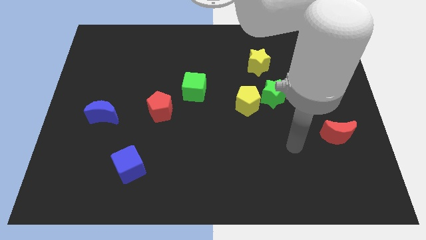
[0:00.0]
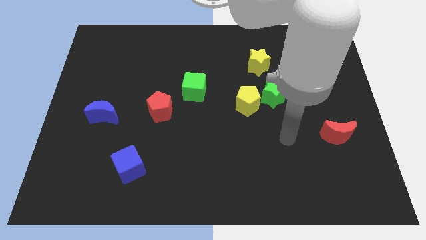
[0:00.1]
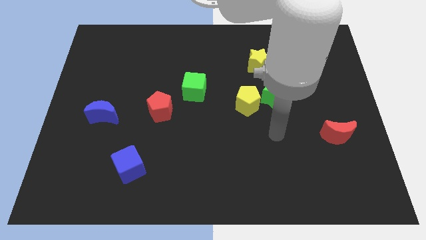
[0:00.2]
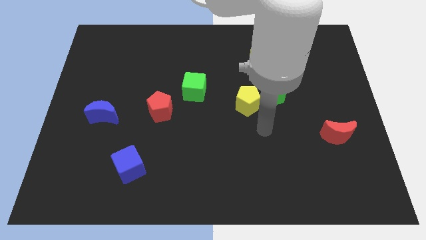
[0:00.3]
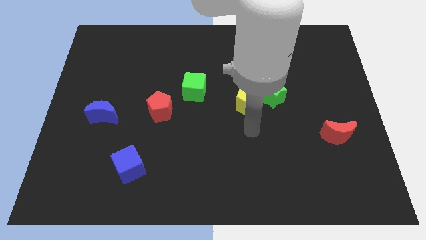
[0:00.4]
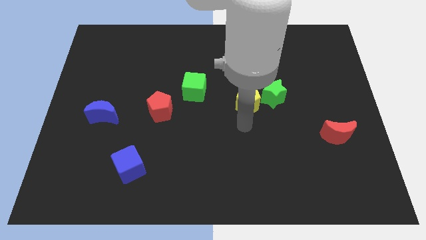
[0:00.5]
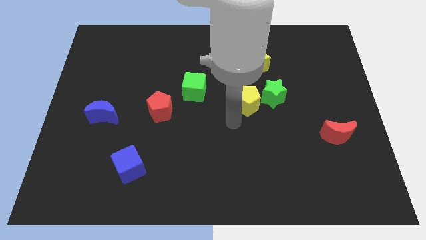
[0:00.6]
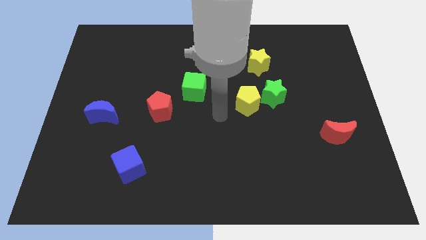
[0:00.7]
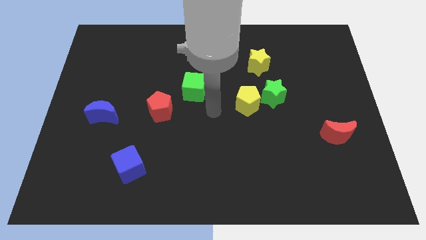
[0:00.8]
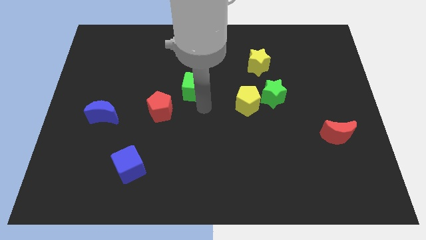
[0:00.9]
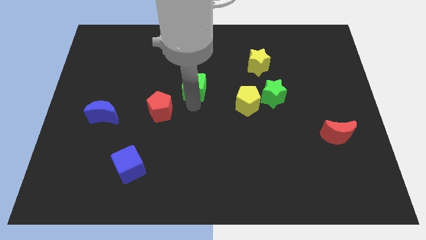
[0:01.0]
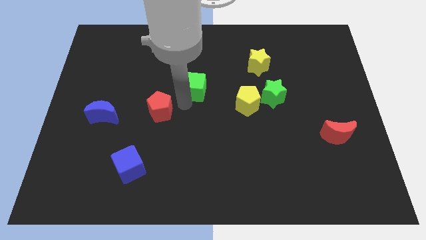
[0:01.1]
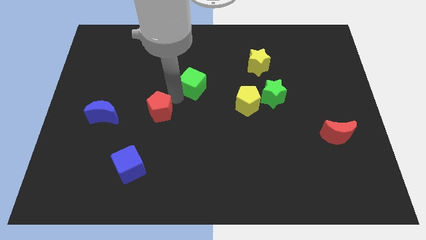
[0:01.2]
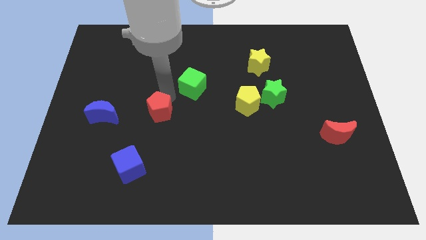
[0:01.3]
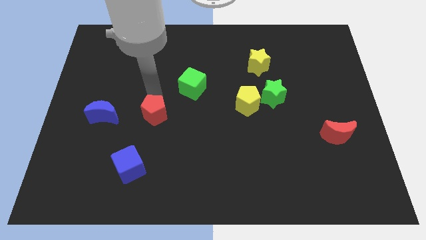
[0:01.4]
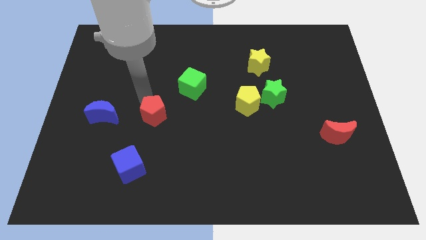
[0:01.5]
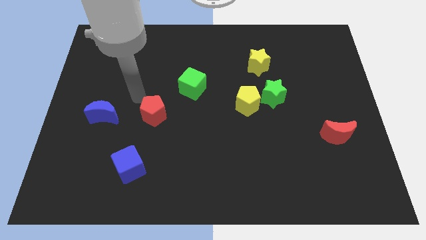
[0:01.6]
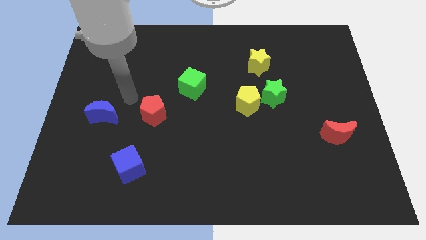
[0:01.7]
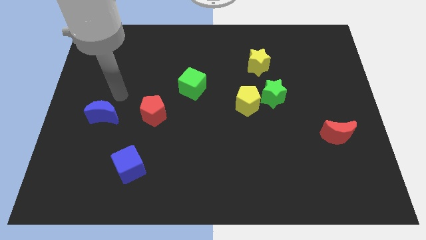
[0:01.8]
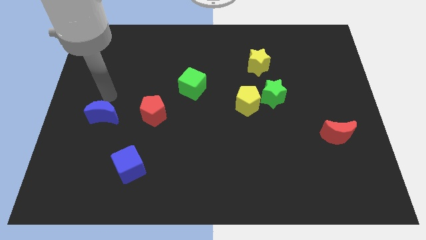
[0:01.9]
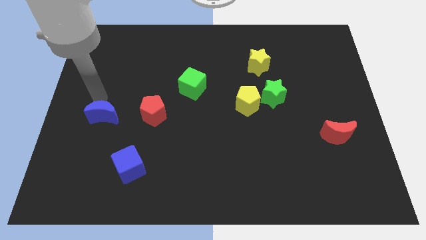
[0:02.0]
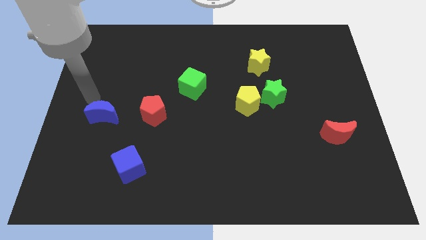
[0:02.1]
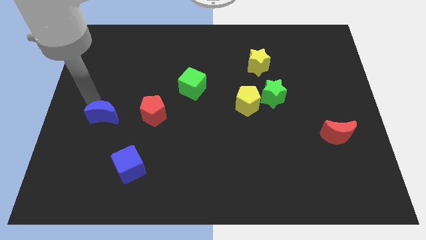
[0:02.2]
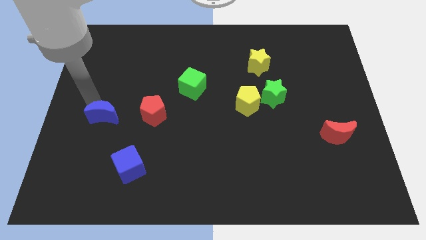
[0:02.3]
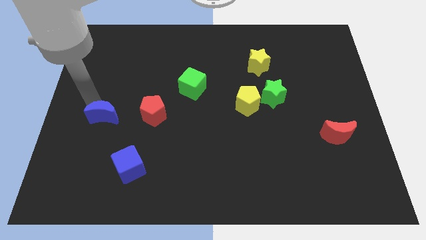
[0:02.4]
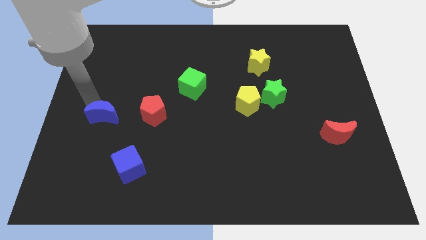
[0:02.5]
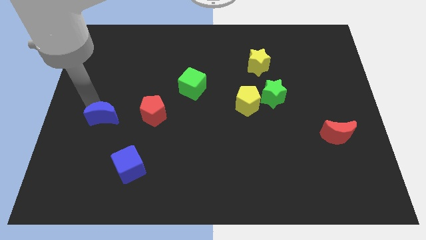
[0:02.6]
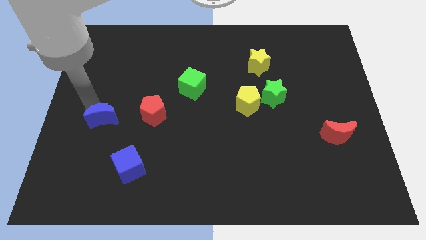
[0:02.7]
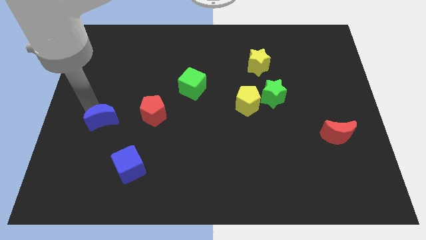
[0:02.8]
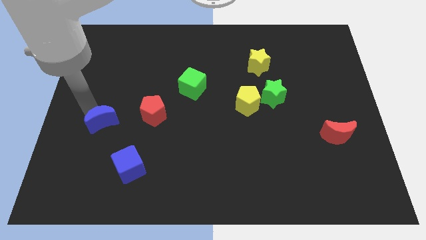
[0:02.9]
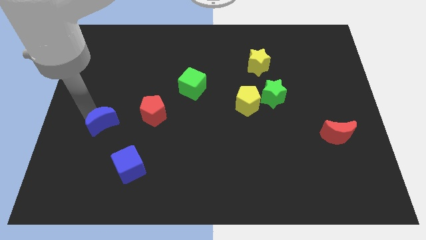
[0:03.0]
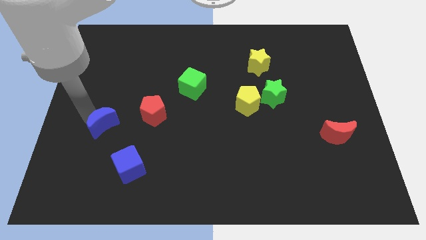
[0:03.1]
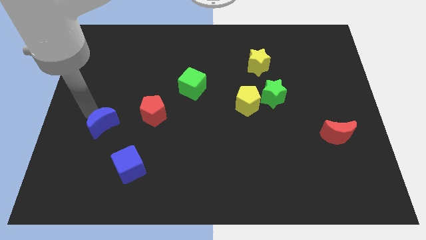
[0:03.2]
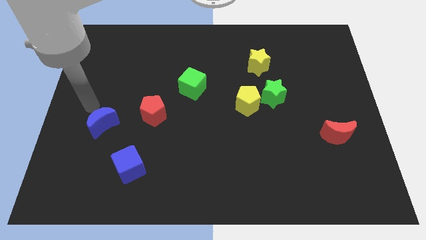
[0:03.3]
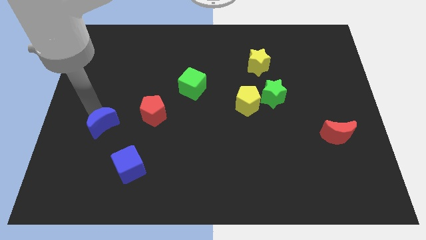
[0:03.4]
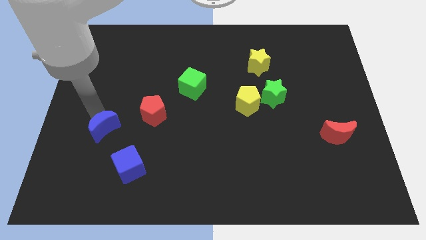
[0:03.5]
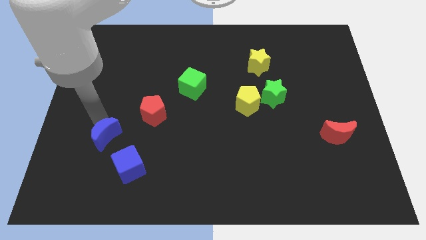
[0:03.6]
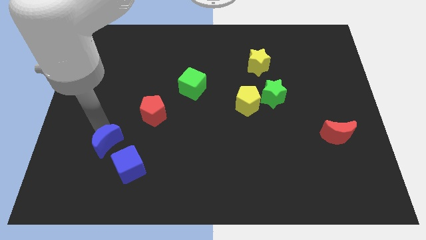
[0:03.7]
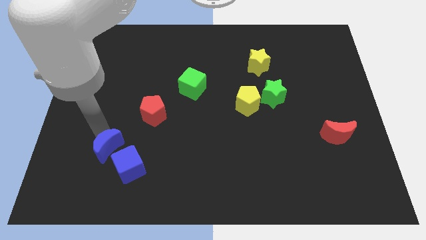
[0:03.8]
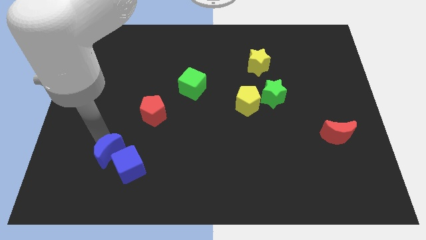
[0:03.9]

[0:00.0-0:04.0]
slide the blue moon next to the blue cube

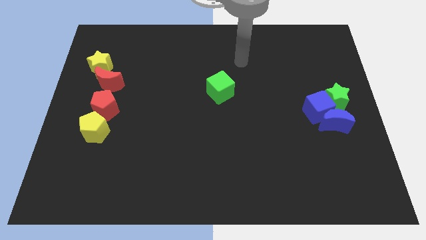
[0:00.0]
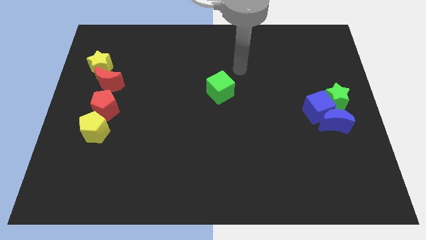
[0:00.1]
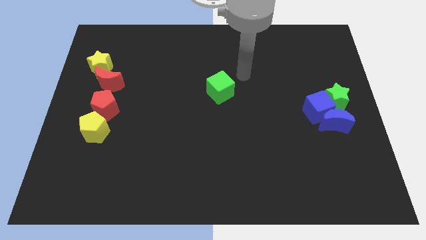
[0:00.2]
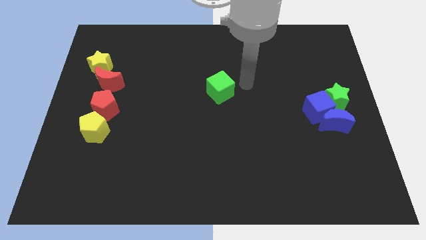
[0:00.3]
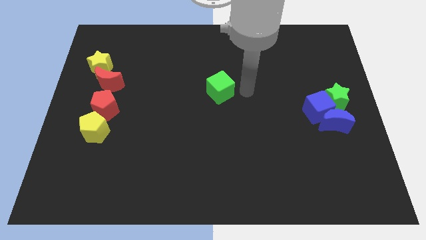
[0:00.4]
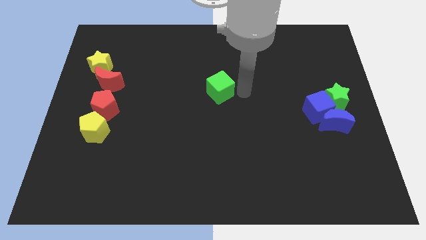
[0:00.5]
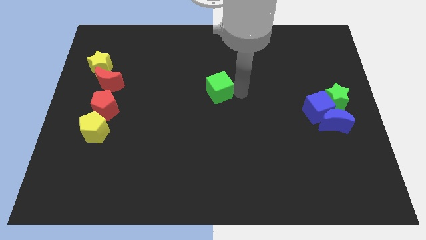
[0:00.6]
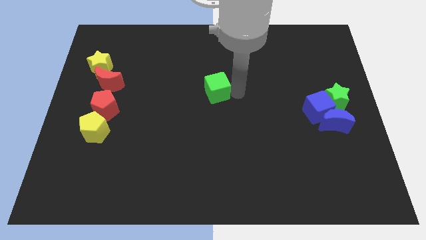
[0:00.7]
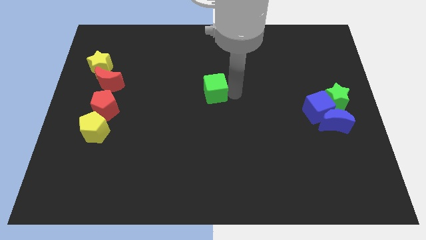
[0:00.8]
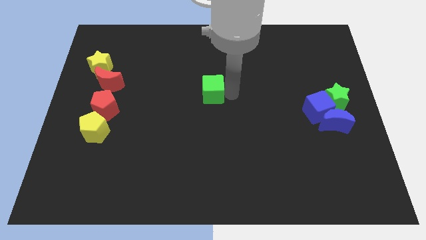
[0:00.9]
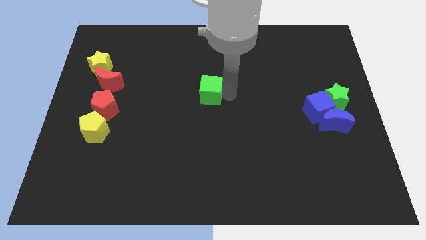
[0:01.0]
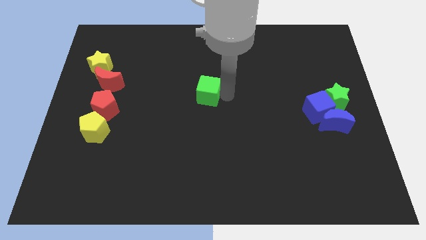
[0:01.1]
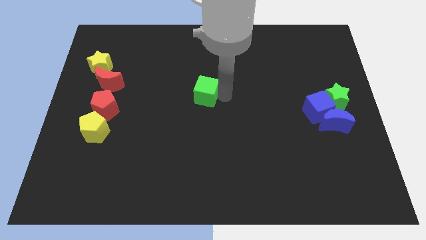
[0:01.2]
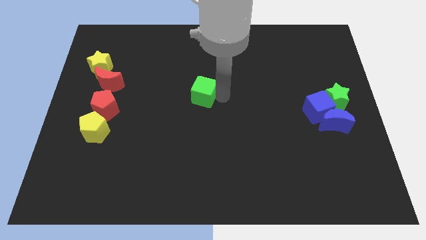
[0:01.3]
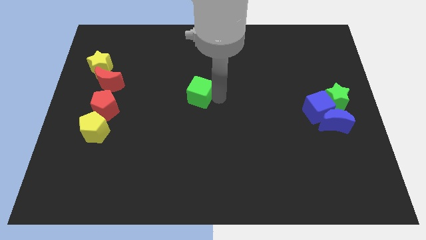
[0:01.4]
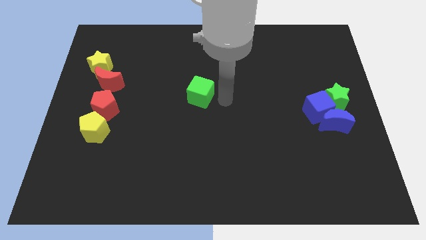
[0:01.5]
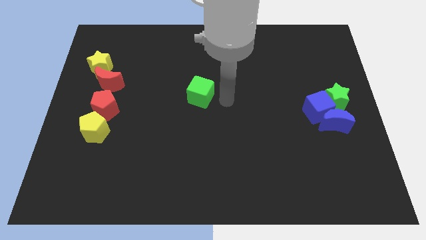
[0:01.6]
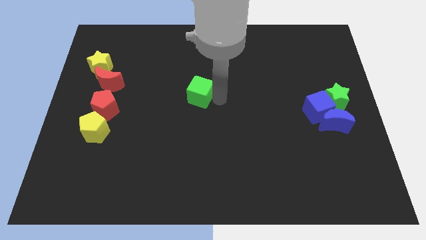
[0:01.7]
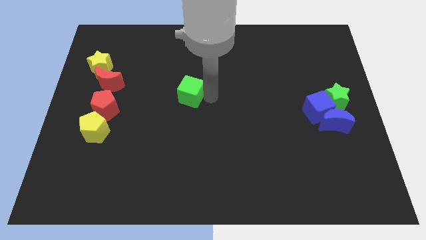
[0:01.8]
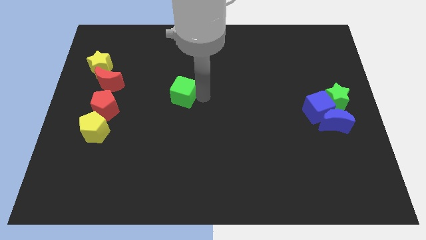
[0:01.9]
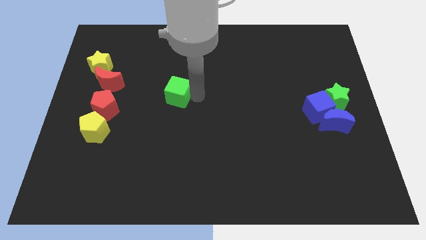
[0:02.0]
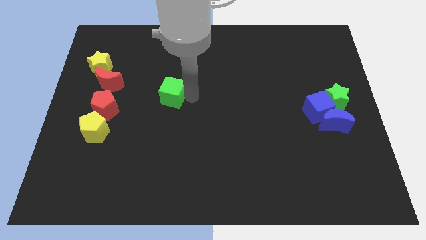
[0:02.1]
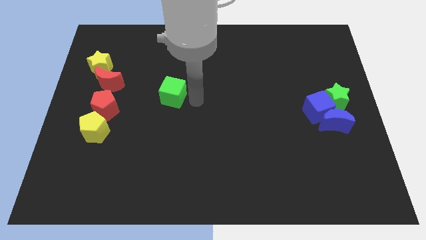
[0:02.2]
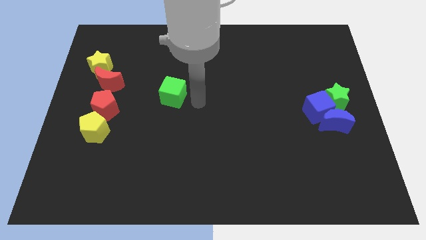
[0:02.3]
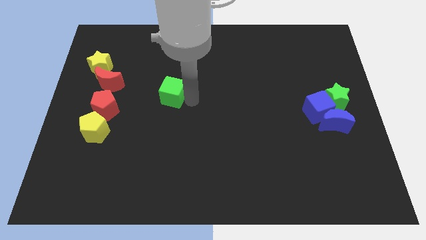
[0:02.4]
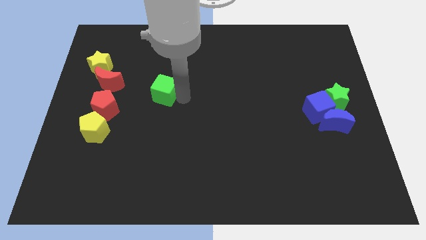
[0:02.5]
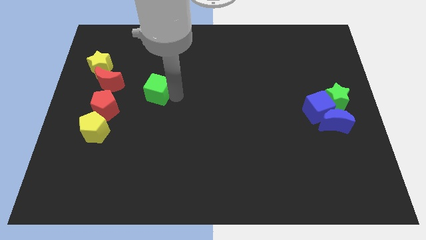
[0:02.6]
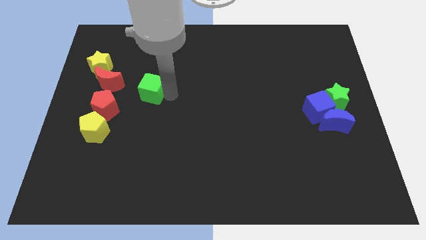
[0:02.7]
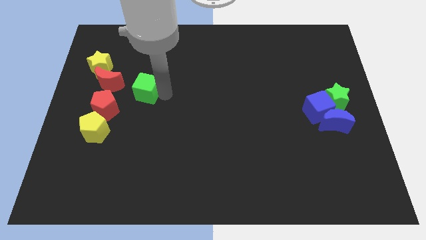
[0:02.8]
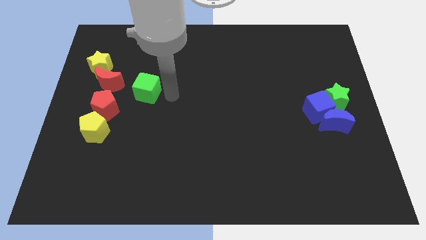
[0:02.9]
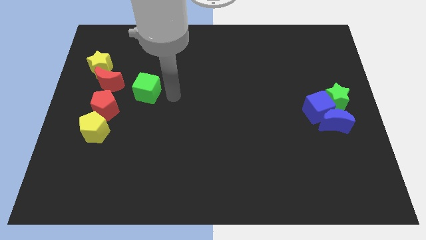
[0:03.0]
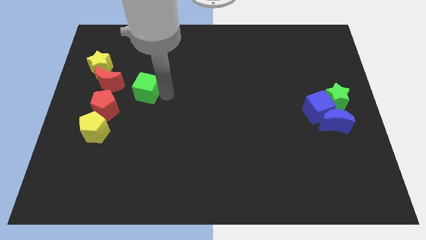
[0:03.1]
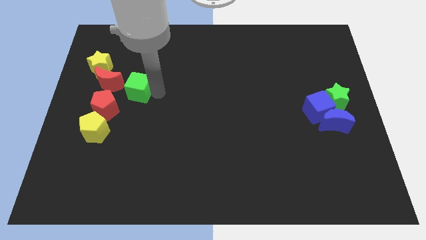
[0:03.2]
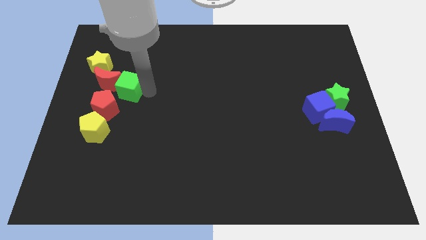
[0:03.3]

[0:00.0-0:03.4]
slide the green cube to the red moon

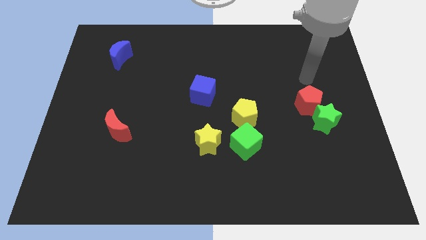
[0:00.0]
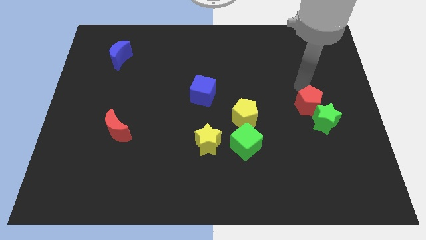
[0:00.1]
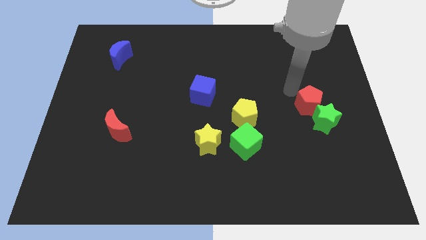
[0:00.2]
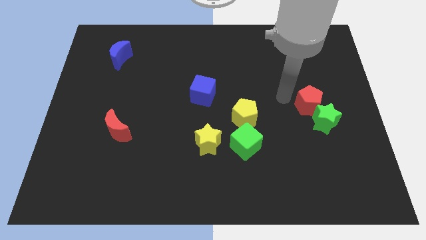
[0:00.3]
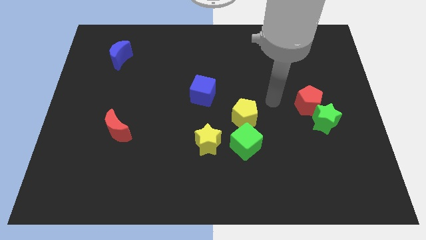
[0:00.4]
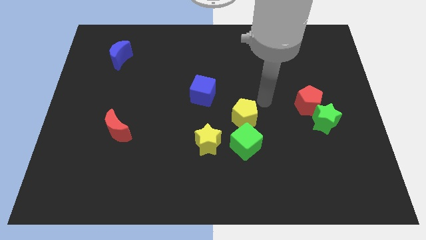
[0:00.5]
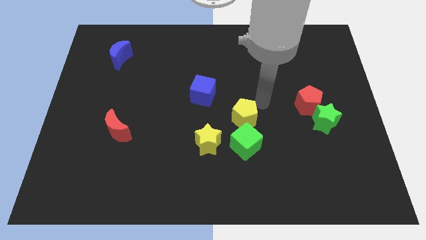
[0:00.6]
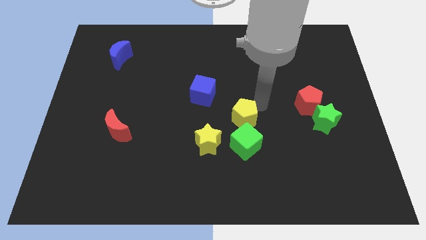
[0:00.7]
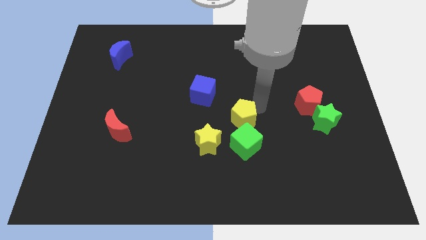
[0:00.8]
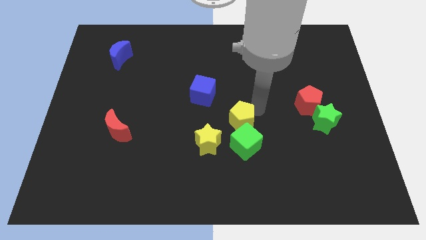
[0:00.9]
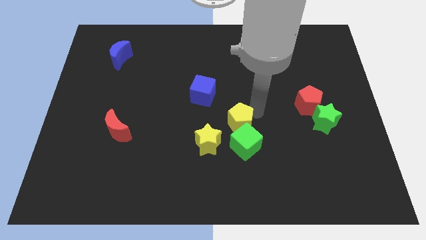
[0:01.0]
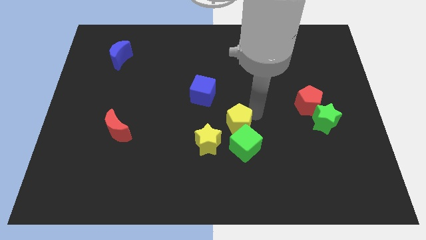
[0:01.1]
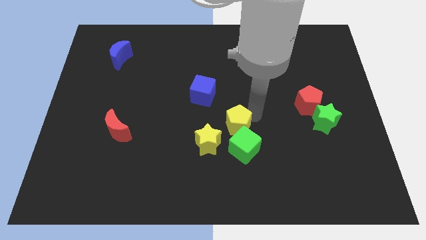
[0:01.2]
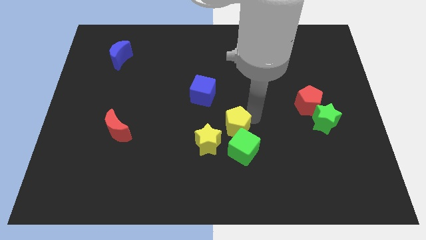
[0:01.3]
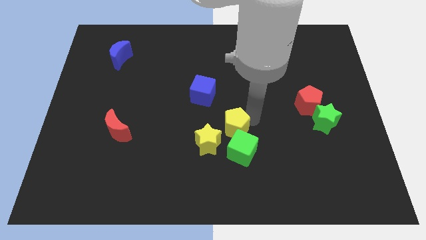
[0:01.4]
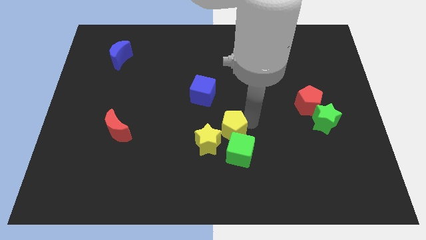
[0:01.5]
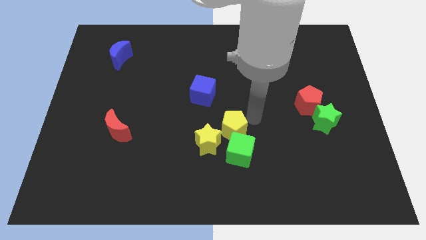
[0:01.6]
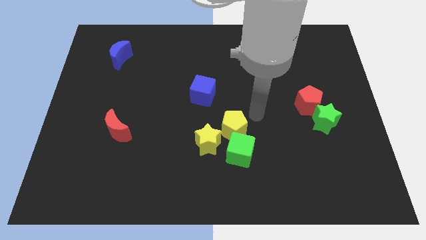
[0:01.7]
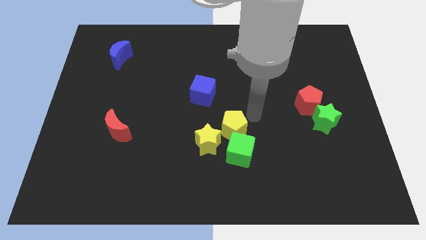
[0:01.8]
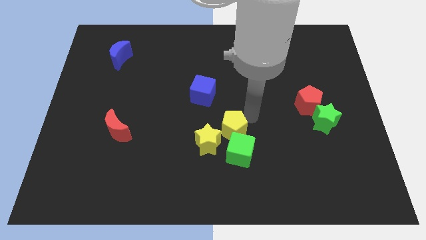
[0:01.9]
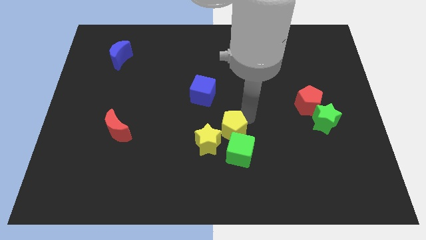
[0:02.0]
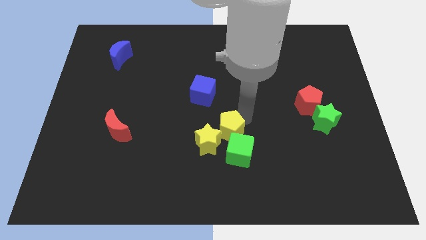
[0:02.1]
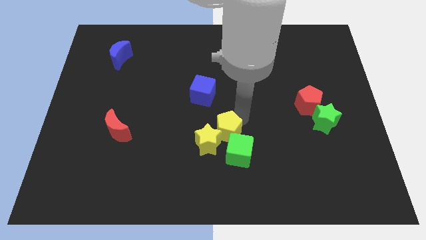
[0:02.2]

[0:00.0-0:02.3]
slide the yellow pentagon to the yellow star
